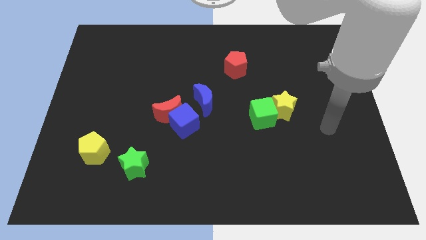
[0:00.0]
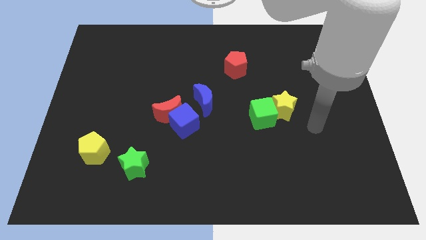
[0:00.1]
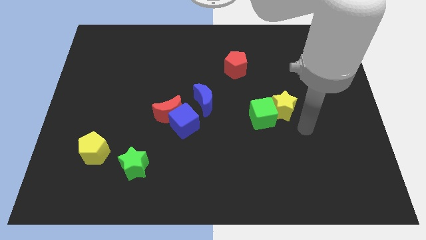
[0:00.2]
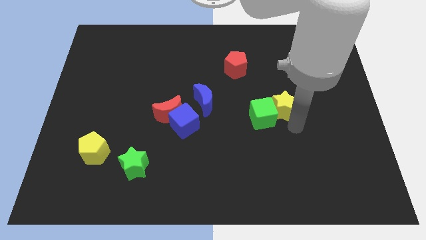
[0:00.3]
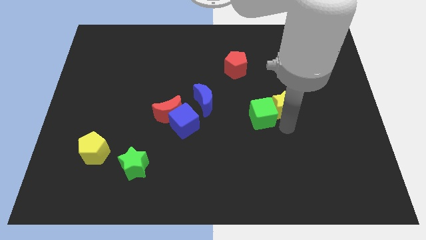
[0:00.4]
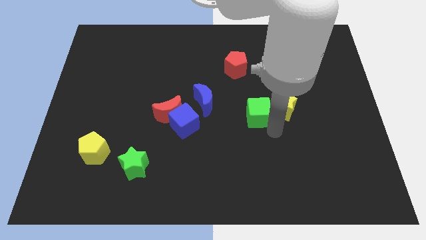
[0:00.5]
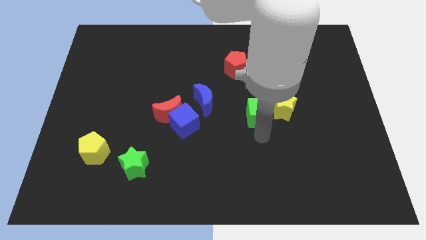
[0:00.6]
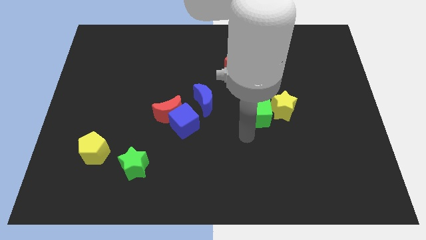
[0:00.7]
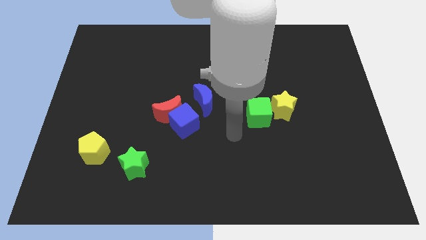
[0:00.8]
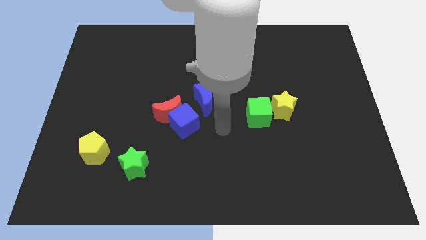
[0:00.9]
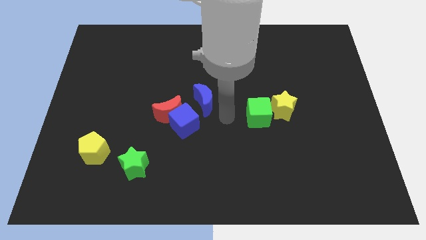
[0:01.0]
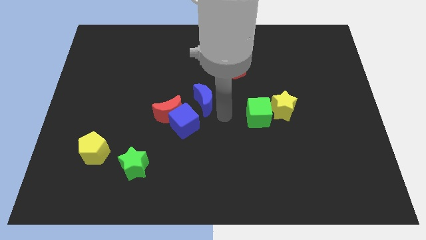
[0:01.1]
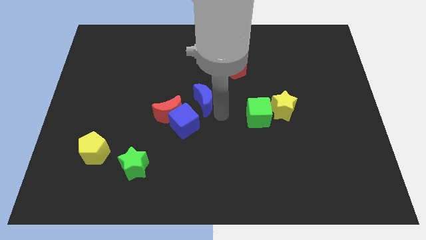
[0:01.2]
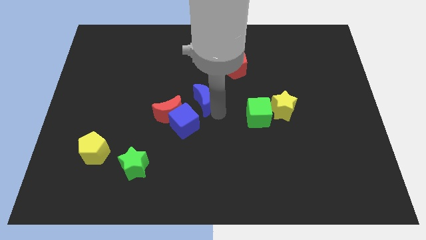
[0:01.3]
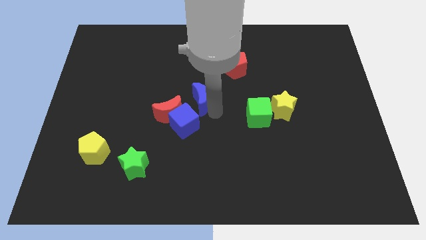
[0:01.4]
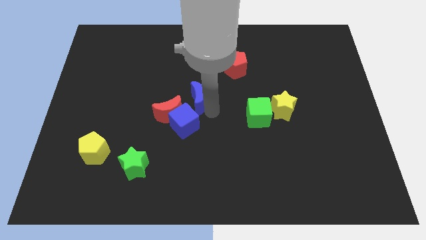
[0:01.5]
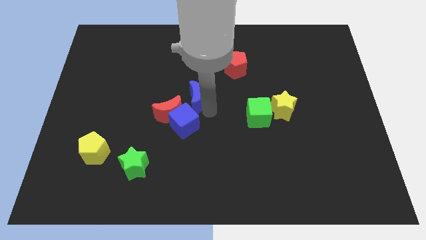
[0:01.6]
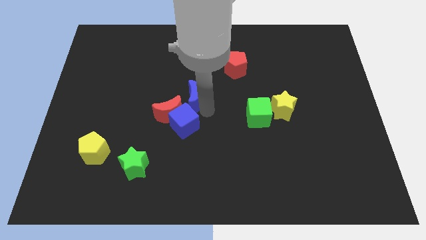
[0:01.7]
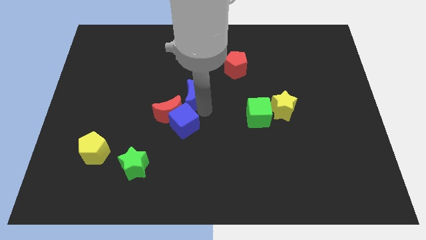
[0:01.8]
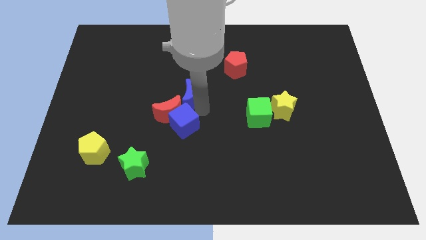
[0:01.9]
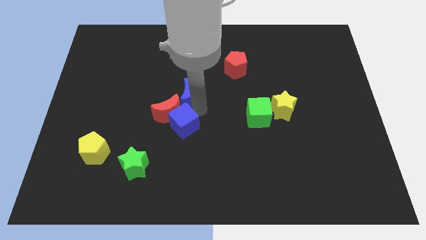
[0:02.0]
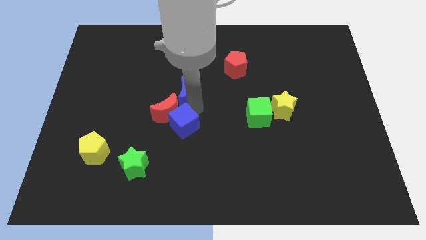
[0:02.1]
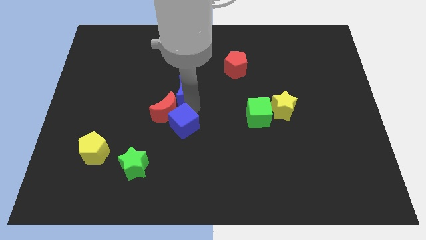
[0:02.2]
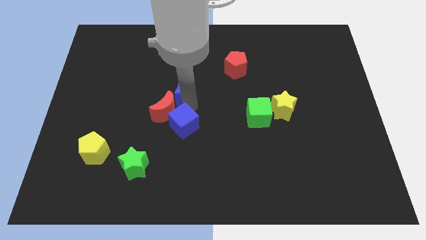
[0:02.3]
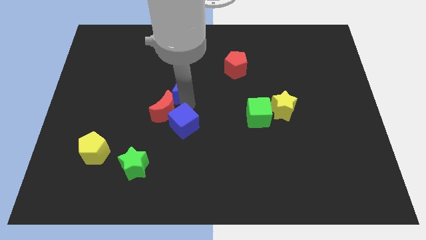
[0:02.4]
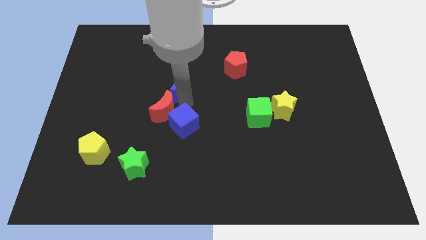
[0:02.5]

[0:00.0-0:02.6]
move the blue moon a bit diagonally upwards and to the left

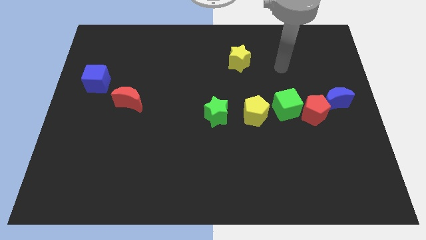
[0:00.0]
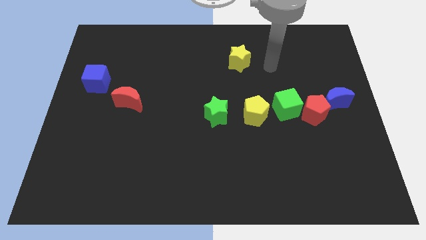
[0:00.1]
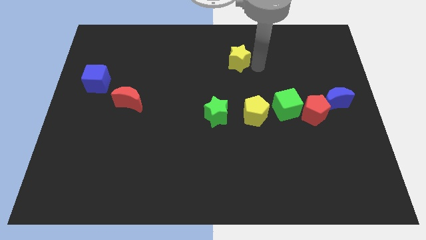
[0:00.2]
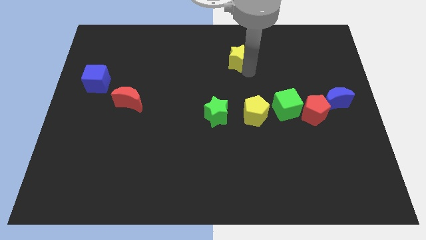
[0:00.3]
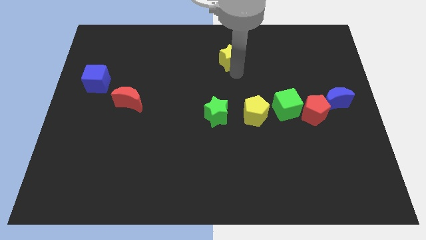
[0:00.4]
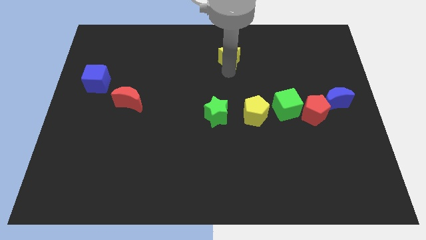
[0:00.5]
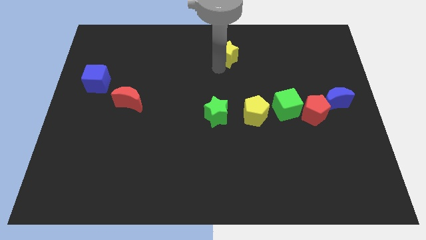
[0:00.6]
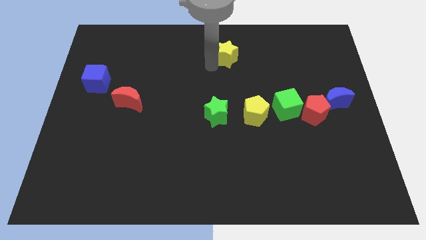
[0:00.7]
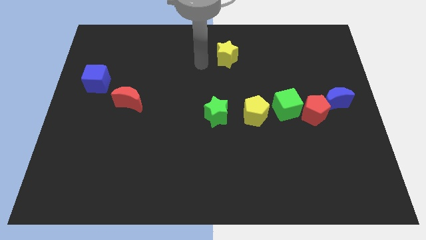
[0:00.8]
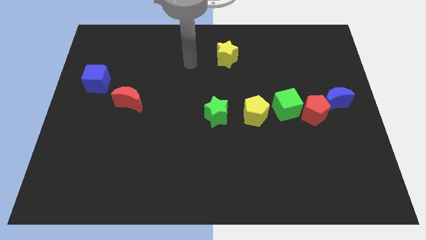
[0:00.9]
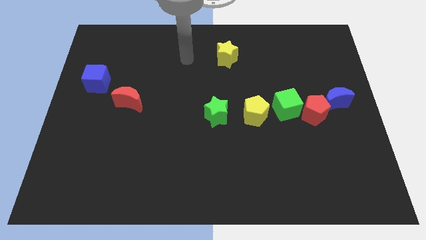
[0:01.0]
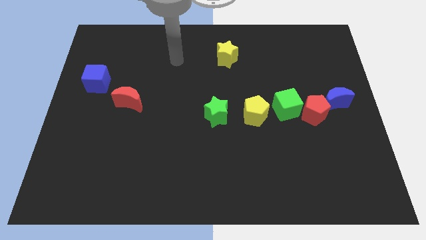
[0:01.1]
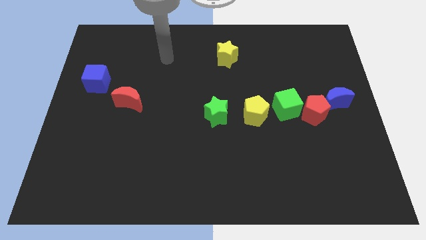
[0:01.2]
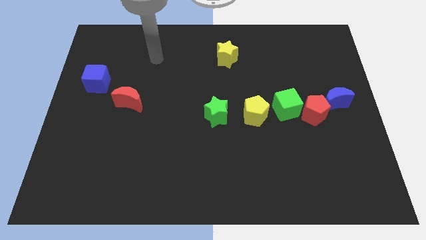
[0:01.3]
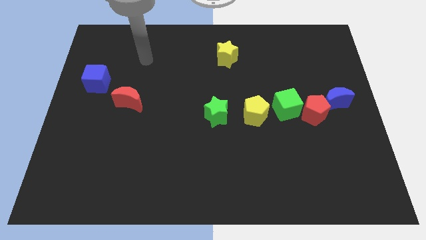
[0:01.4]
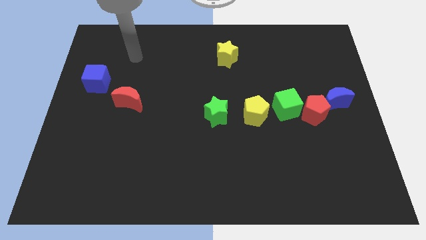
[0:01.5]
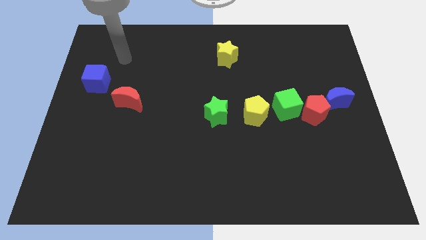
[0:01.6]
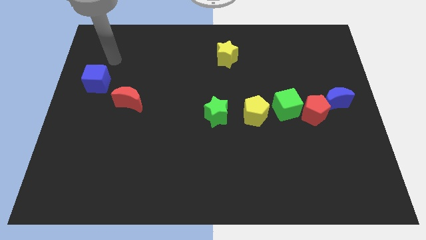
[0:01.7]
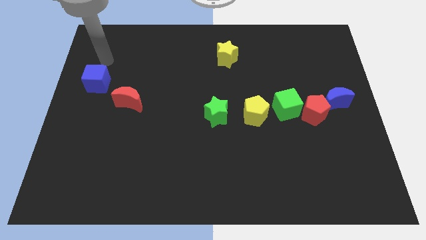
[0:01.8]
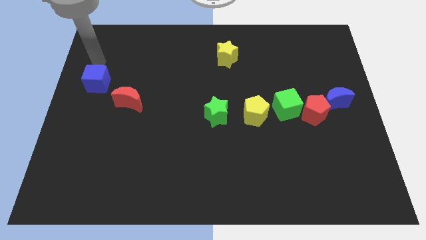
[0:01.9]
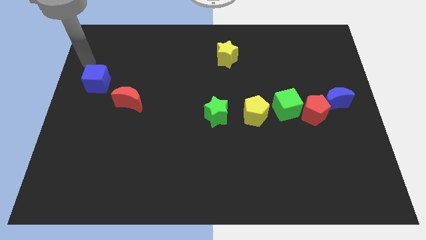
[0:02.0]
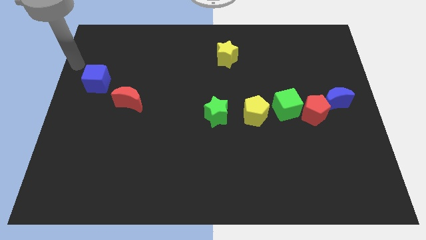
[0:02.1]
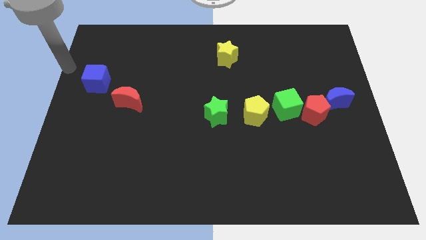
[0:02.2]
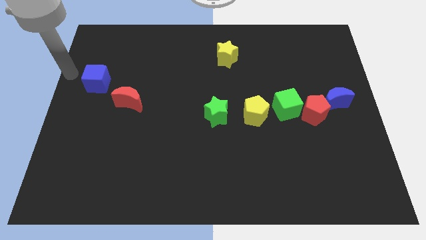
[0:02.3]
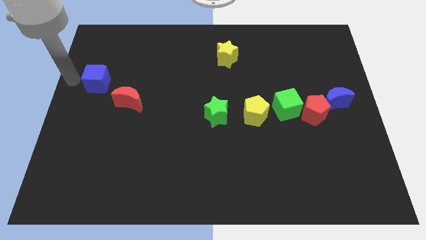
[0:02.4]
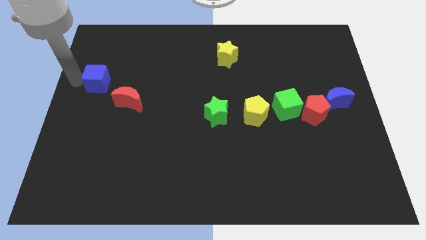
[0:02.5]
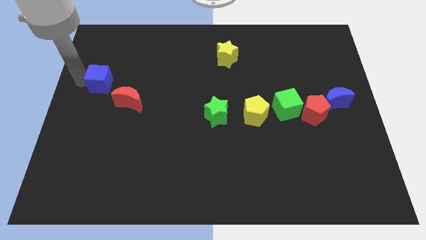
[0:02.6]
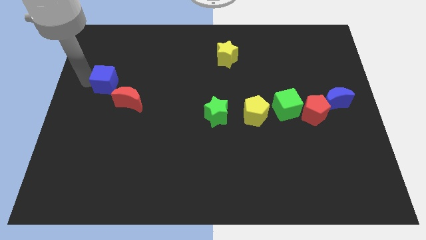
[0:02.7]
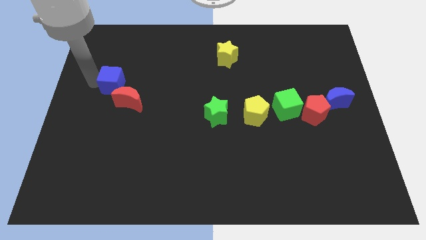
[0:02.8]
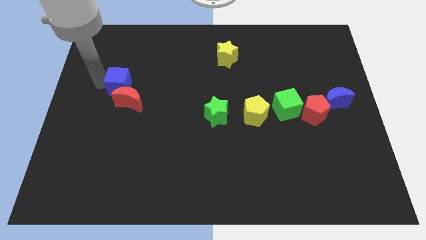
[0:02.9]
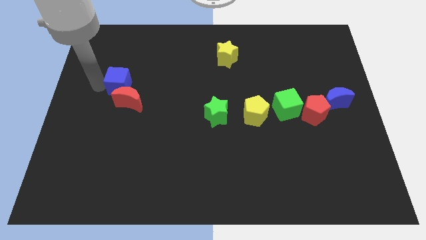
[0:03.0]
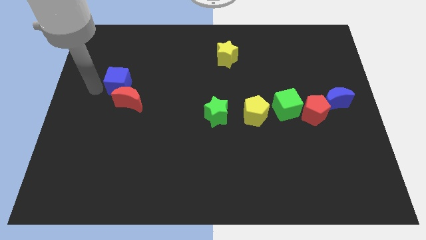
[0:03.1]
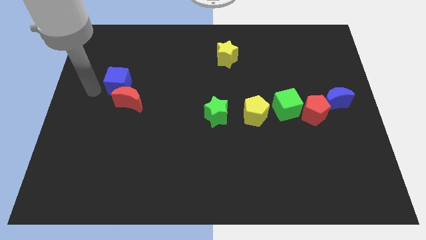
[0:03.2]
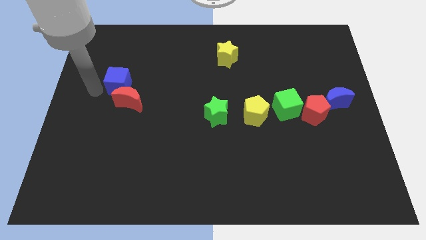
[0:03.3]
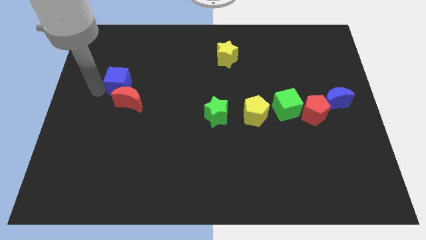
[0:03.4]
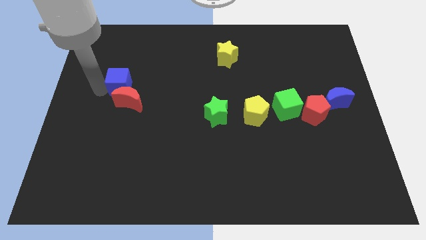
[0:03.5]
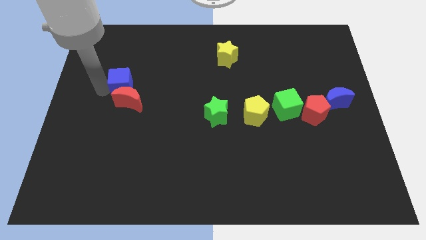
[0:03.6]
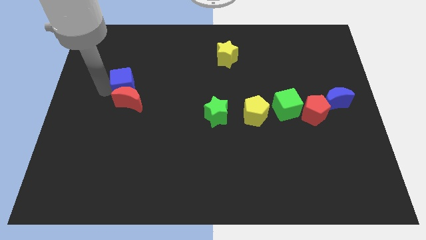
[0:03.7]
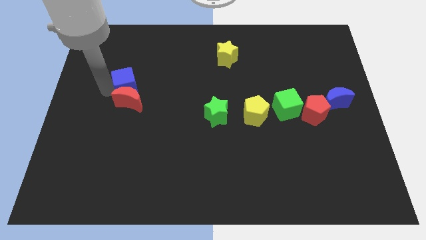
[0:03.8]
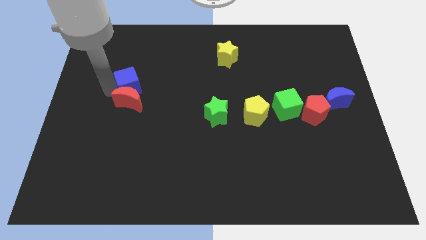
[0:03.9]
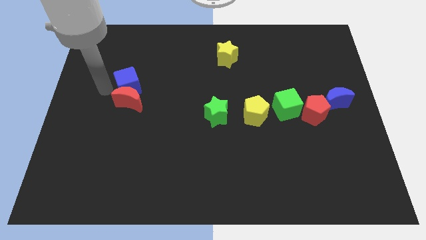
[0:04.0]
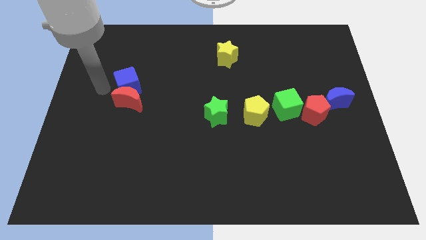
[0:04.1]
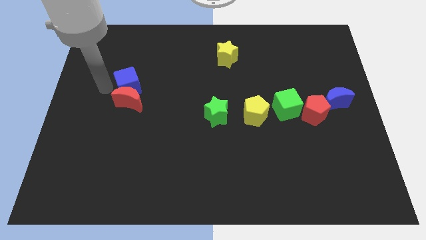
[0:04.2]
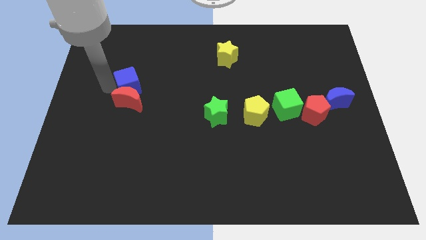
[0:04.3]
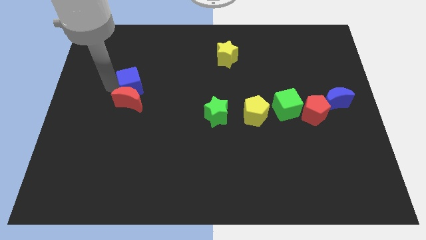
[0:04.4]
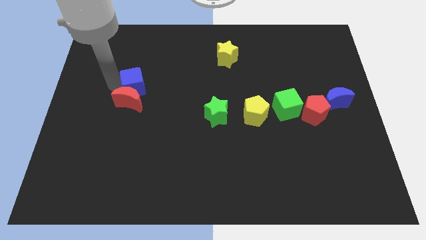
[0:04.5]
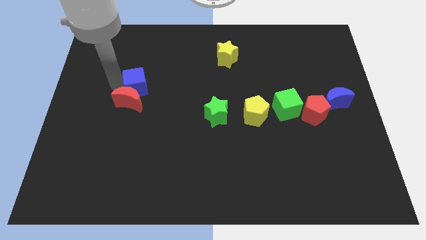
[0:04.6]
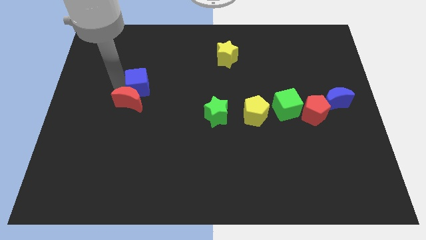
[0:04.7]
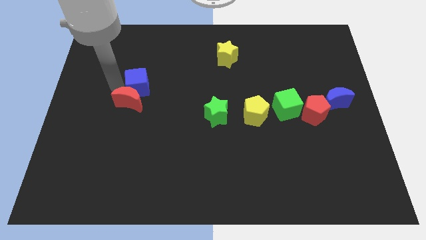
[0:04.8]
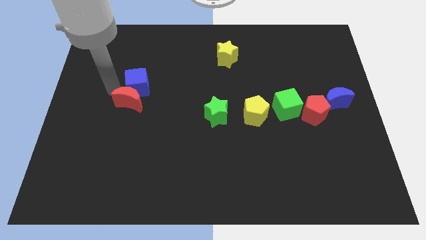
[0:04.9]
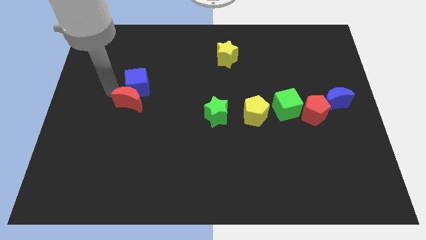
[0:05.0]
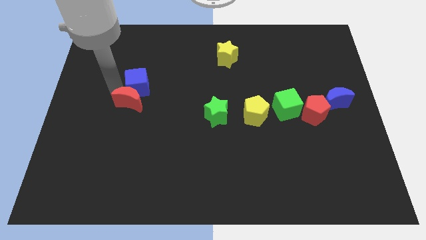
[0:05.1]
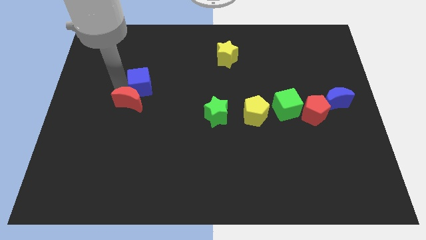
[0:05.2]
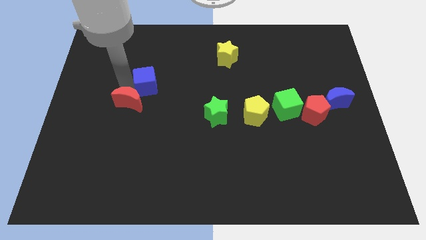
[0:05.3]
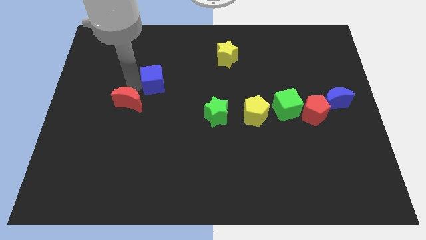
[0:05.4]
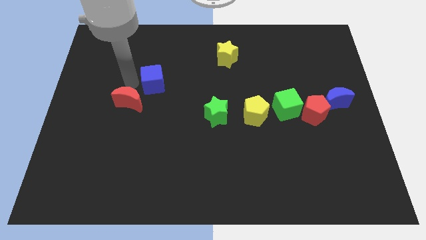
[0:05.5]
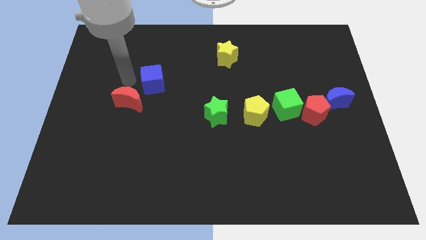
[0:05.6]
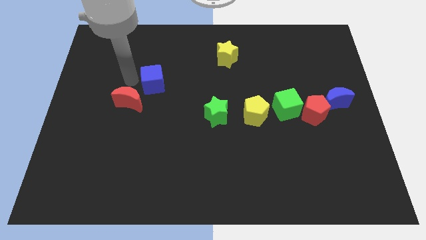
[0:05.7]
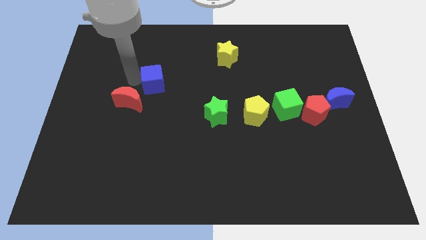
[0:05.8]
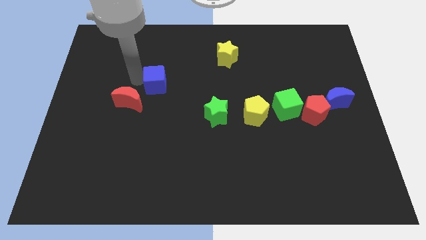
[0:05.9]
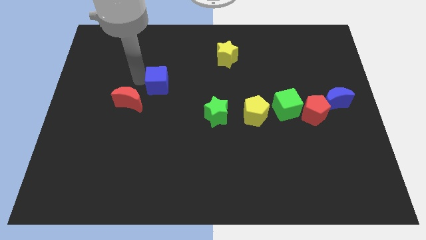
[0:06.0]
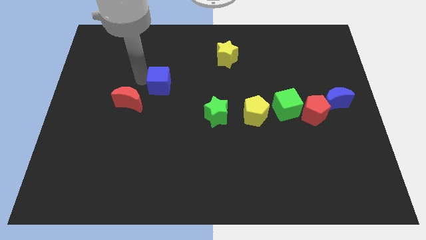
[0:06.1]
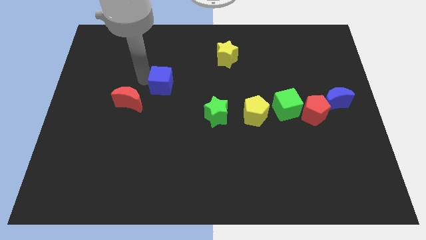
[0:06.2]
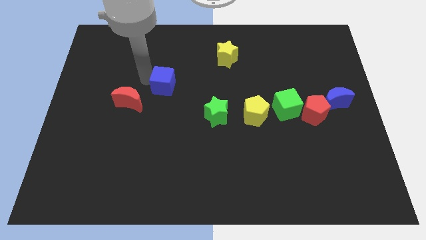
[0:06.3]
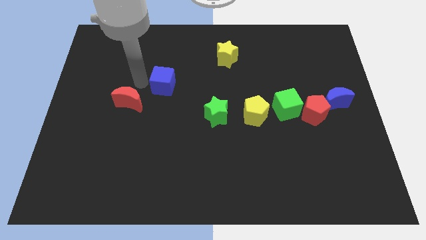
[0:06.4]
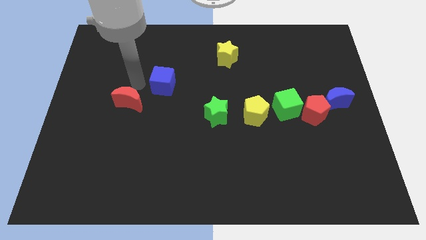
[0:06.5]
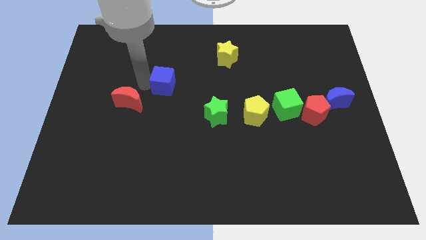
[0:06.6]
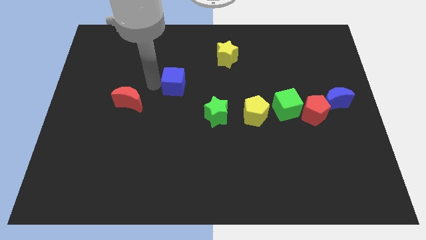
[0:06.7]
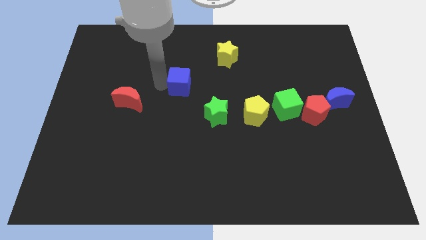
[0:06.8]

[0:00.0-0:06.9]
move the blue cube to the right
